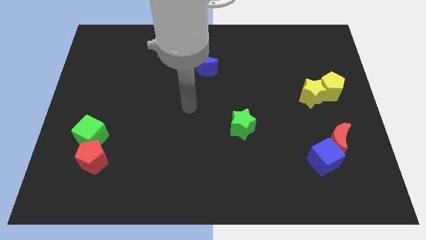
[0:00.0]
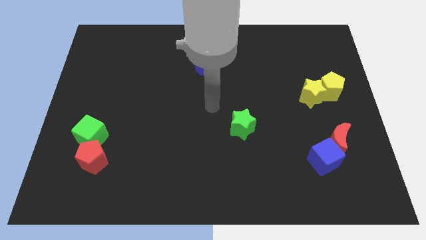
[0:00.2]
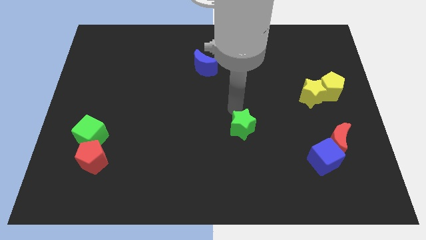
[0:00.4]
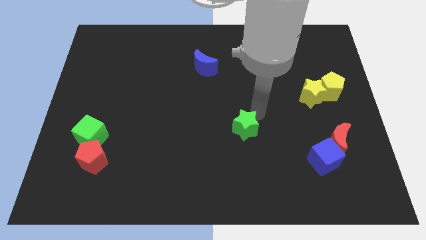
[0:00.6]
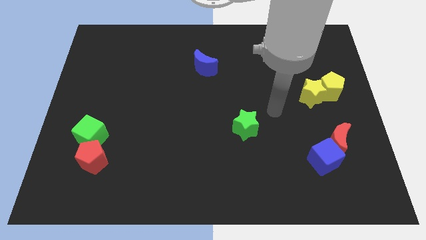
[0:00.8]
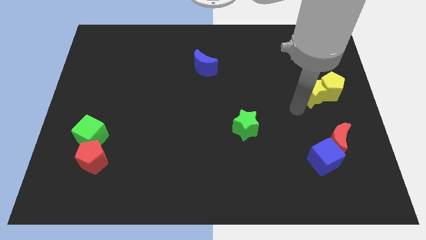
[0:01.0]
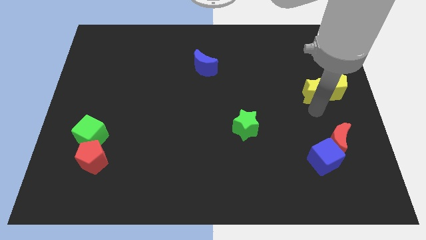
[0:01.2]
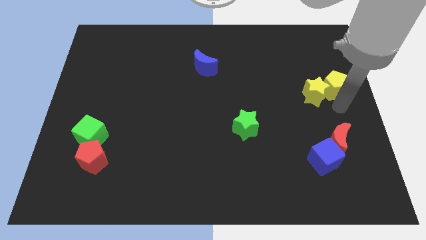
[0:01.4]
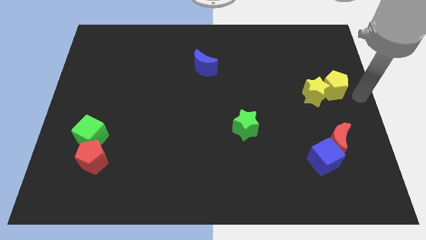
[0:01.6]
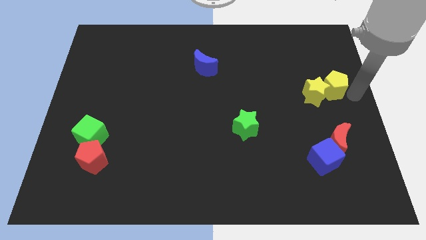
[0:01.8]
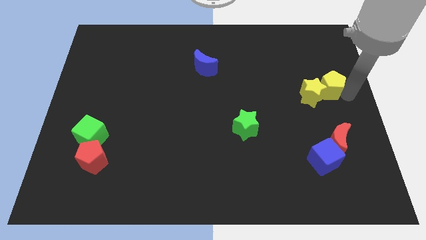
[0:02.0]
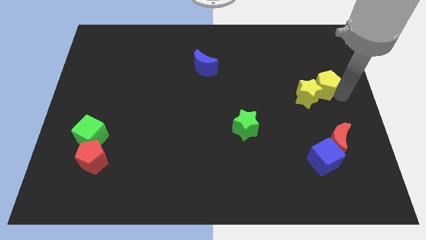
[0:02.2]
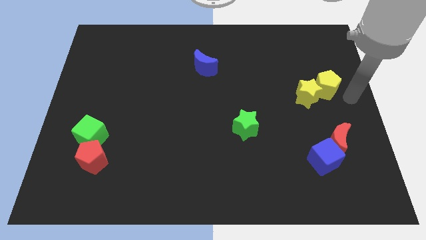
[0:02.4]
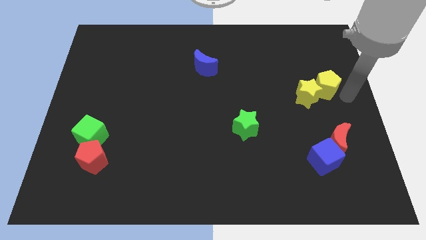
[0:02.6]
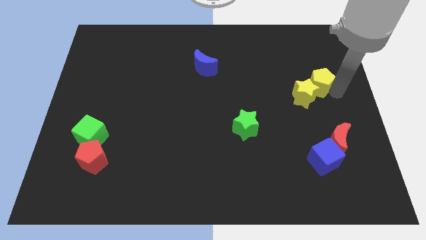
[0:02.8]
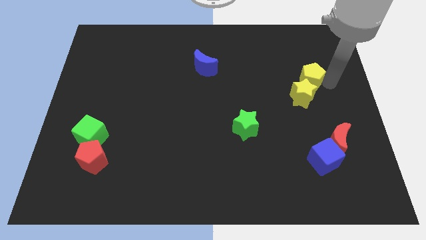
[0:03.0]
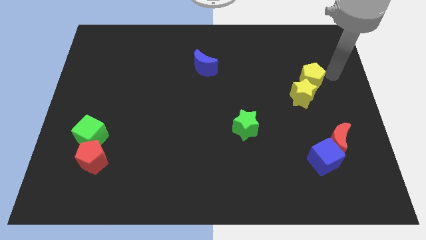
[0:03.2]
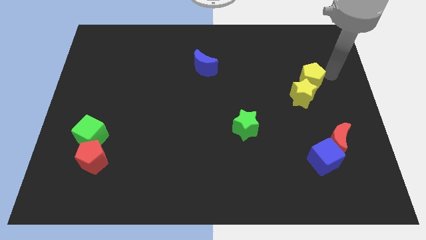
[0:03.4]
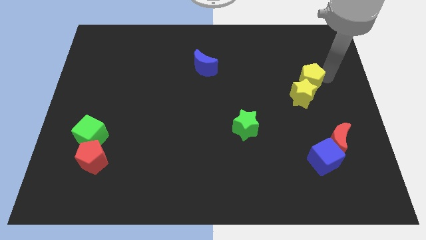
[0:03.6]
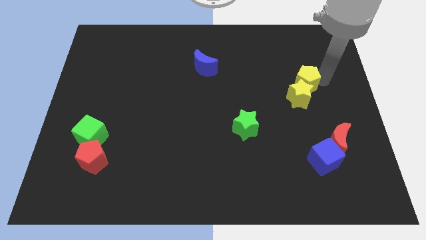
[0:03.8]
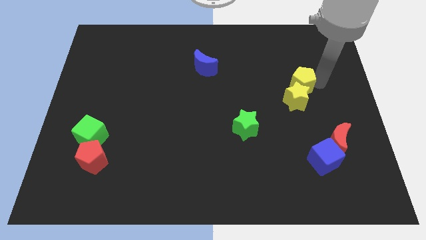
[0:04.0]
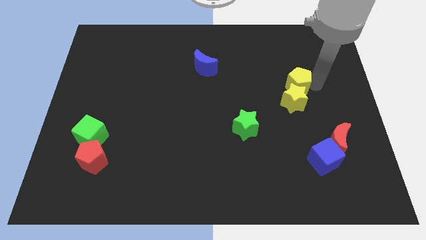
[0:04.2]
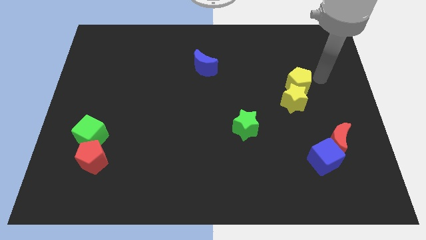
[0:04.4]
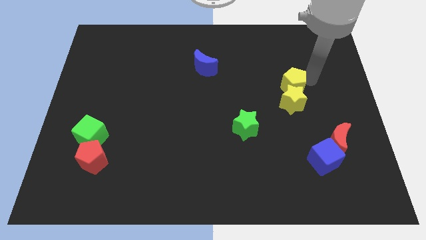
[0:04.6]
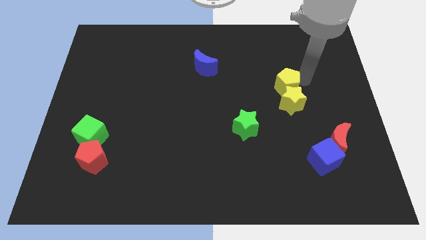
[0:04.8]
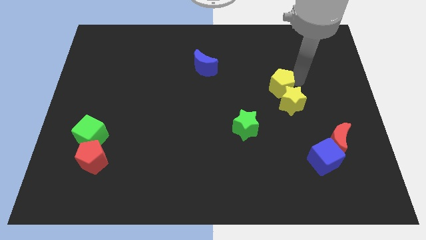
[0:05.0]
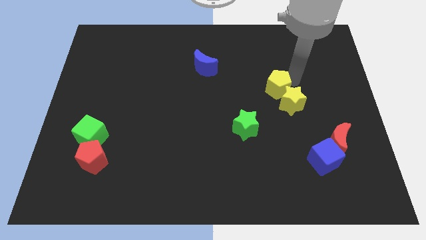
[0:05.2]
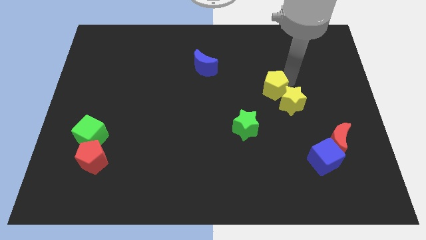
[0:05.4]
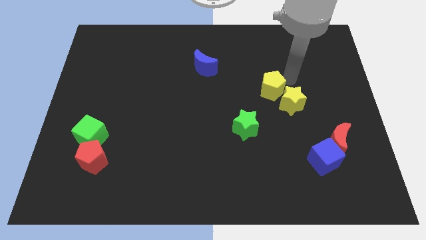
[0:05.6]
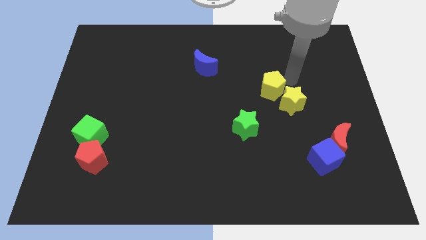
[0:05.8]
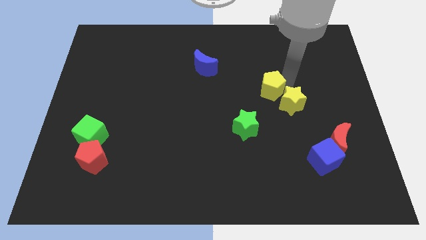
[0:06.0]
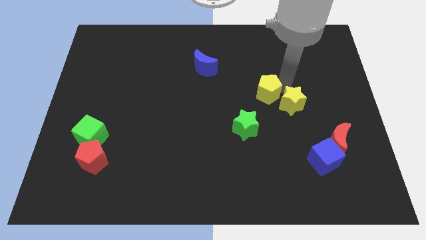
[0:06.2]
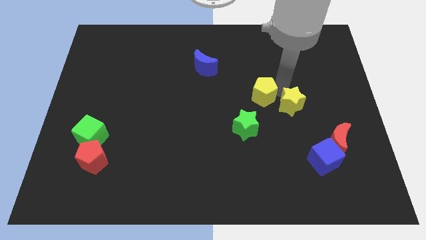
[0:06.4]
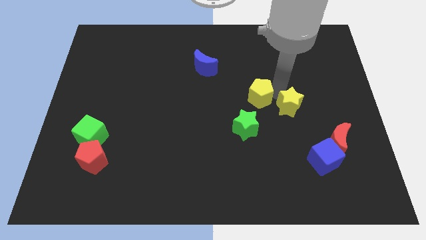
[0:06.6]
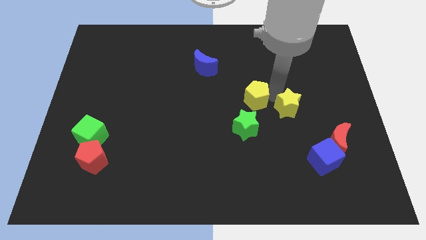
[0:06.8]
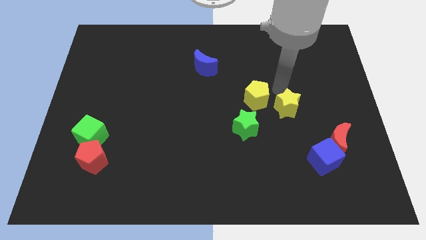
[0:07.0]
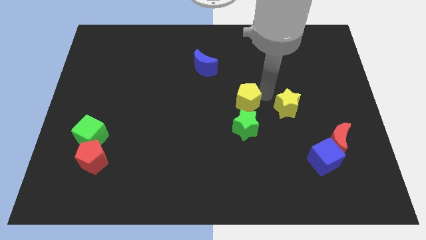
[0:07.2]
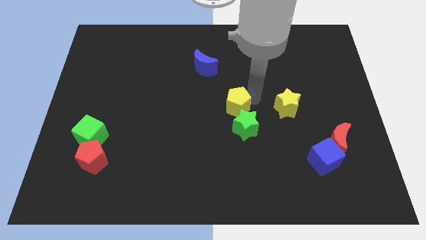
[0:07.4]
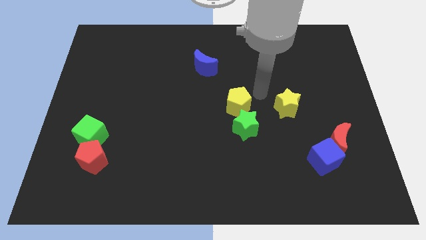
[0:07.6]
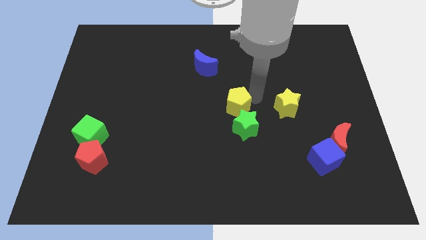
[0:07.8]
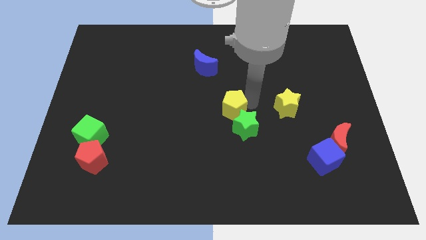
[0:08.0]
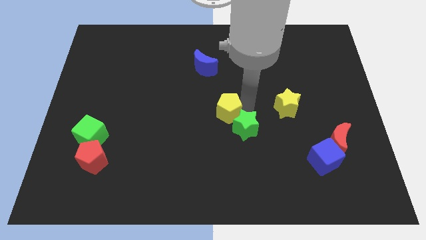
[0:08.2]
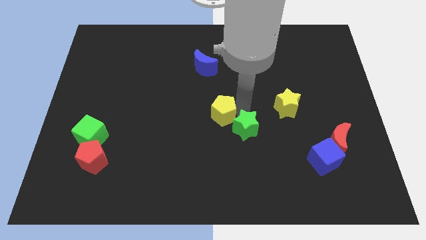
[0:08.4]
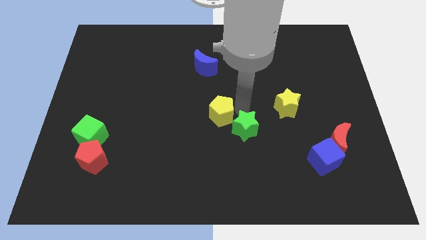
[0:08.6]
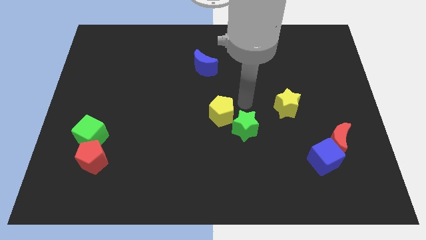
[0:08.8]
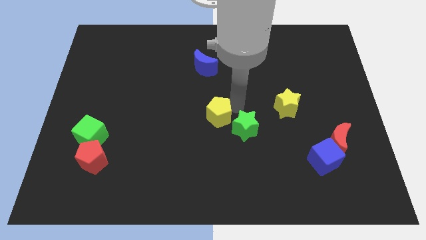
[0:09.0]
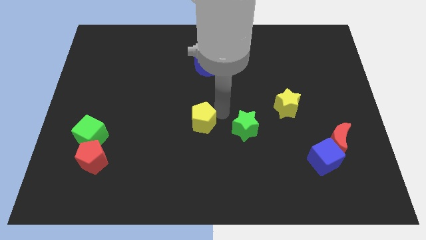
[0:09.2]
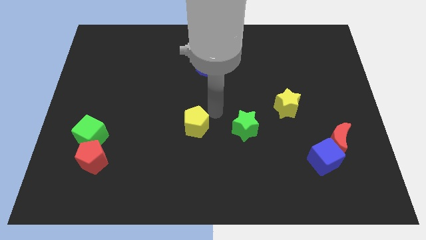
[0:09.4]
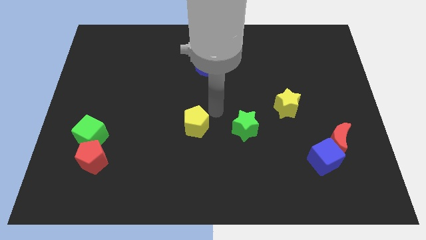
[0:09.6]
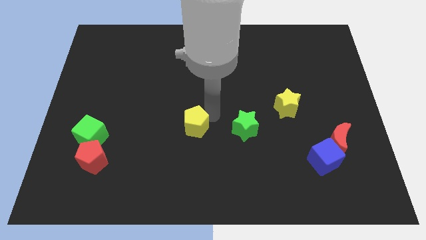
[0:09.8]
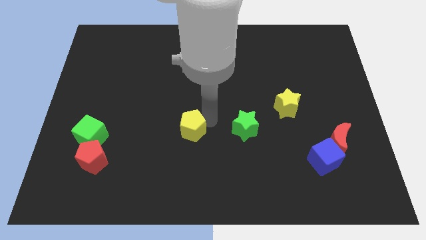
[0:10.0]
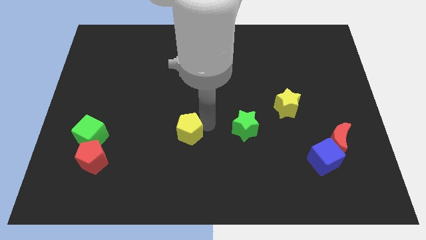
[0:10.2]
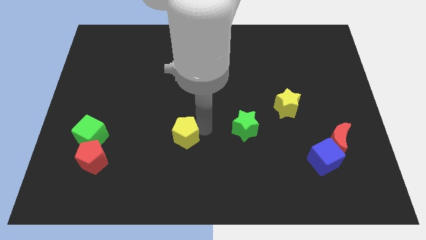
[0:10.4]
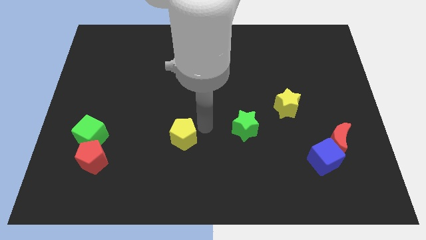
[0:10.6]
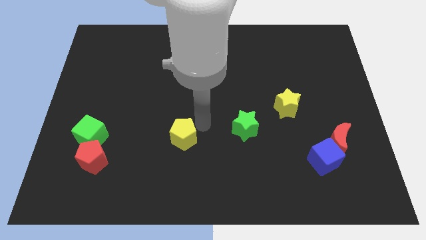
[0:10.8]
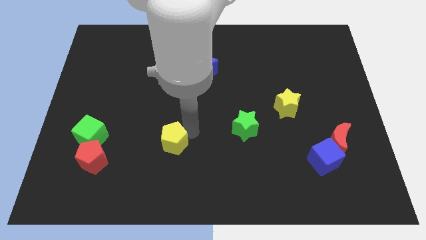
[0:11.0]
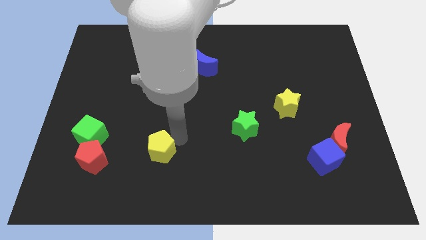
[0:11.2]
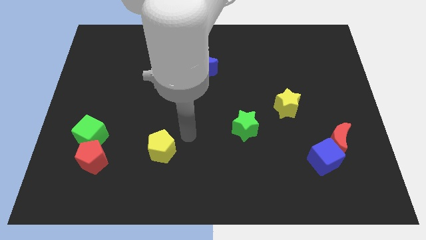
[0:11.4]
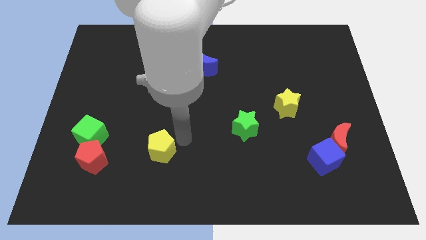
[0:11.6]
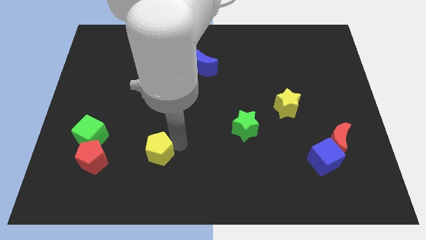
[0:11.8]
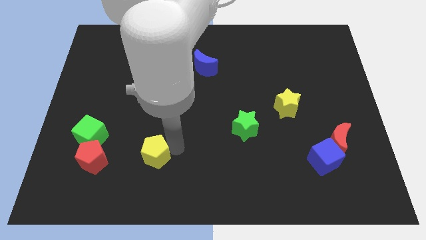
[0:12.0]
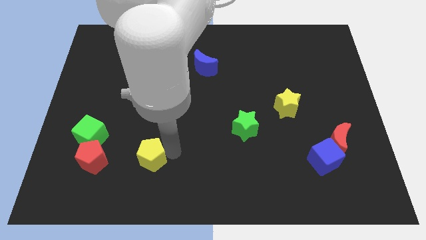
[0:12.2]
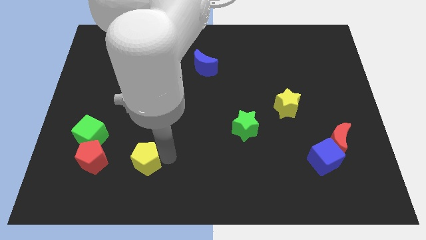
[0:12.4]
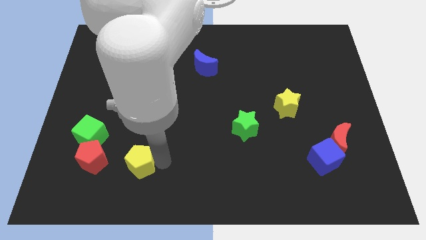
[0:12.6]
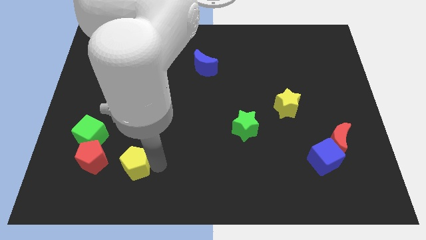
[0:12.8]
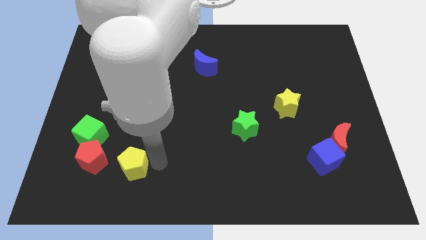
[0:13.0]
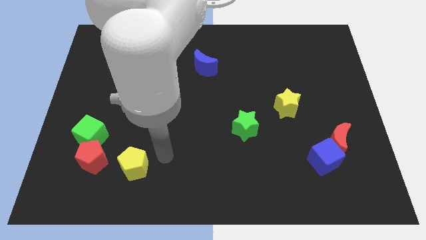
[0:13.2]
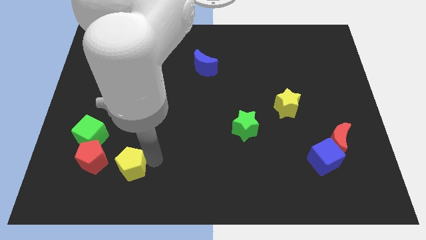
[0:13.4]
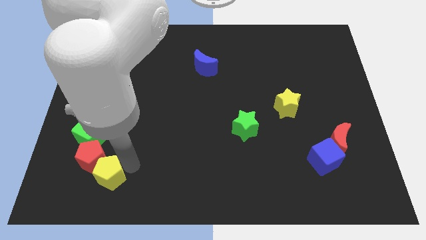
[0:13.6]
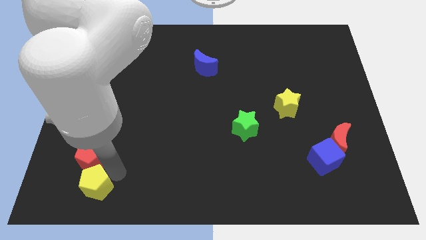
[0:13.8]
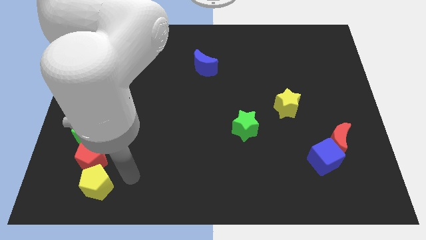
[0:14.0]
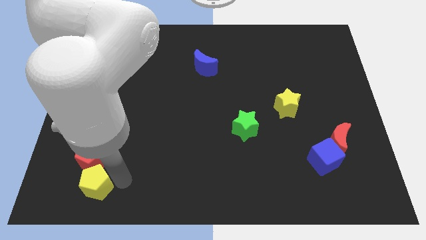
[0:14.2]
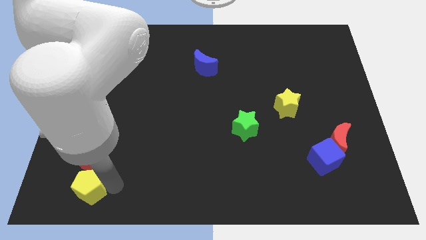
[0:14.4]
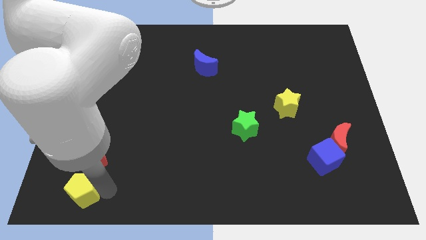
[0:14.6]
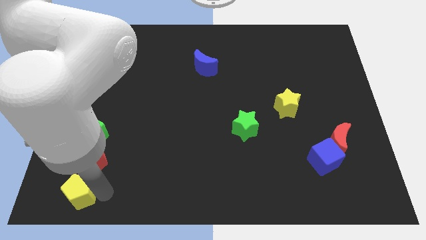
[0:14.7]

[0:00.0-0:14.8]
push the yellow pentagon to the bottom left corner

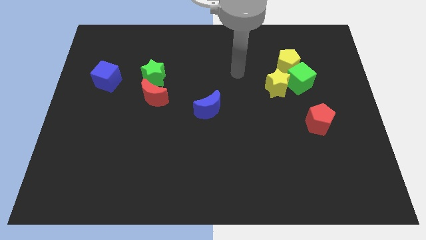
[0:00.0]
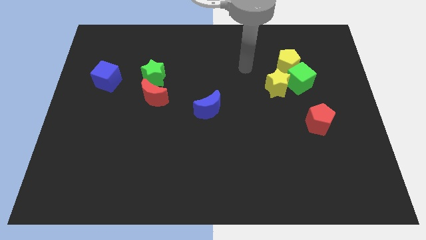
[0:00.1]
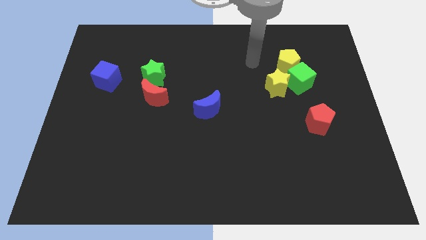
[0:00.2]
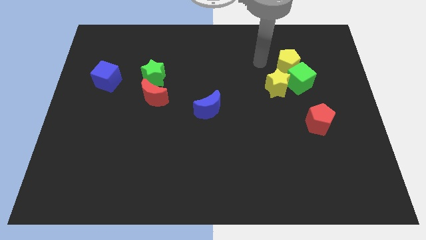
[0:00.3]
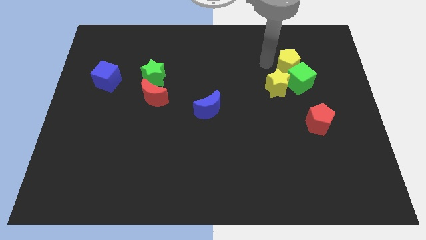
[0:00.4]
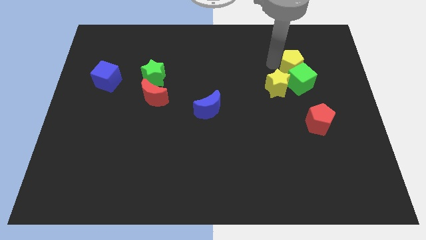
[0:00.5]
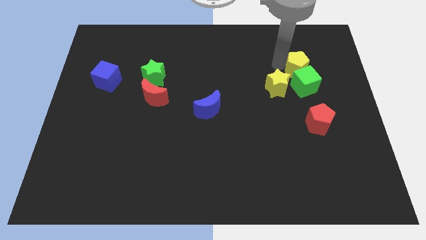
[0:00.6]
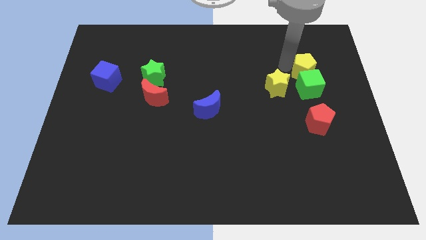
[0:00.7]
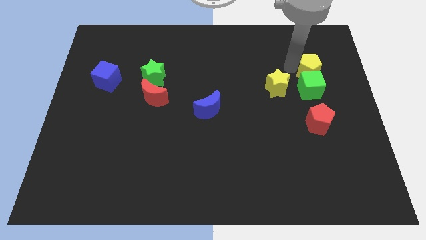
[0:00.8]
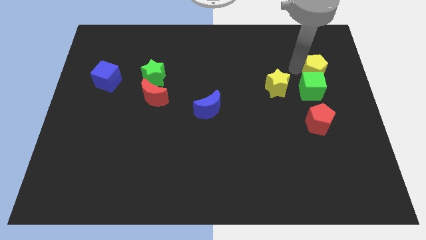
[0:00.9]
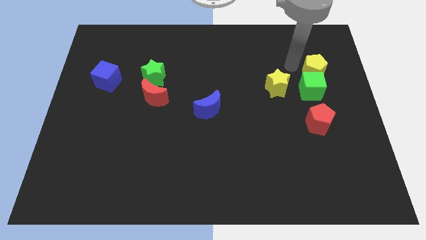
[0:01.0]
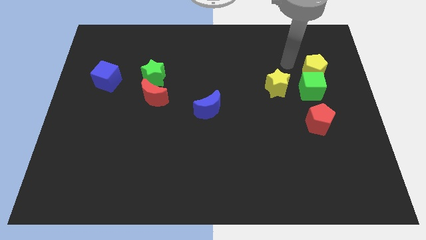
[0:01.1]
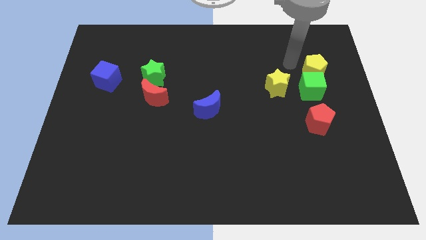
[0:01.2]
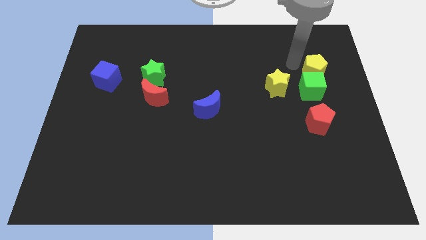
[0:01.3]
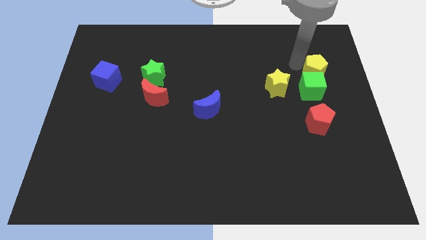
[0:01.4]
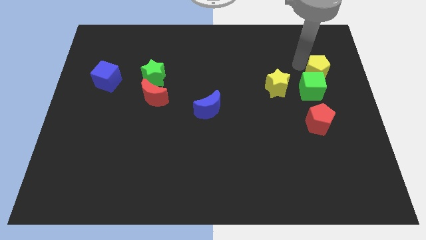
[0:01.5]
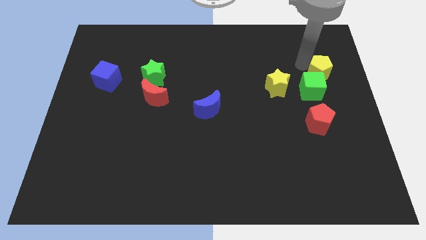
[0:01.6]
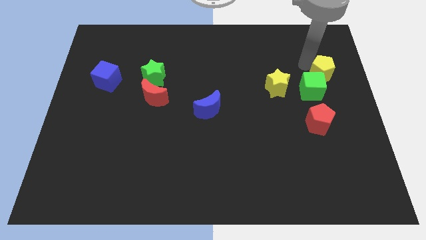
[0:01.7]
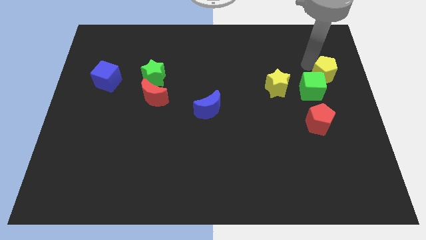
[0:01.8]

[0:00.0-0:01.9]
slide the yellow pentagon to the right side of the board
